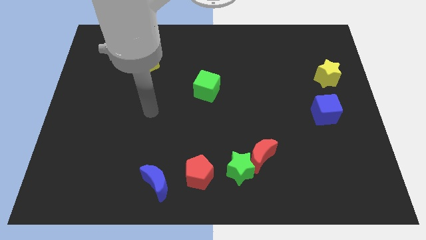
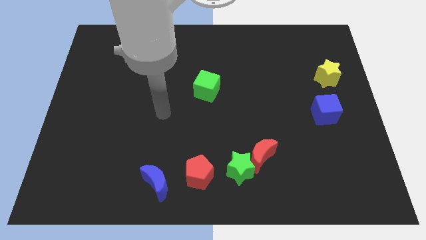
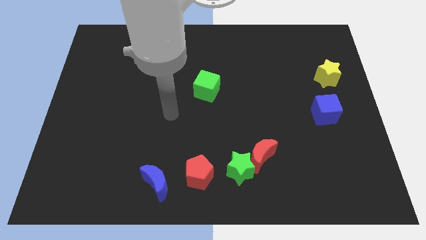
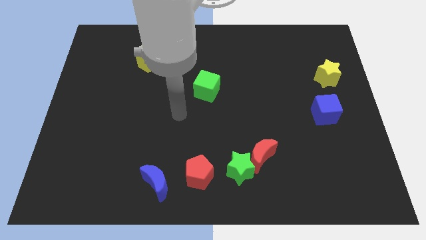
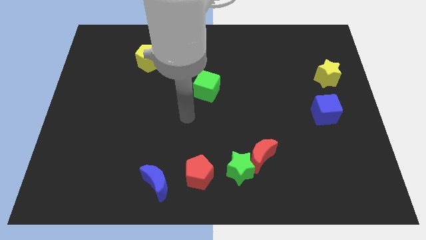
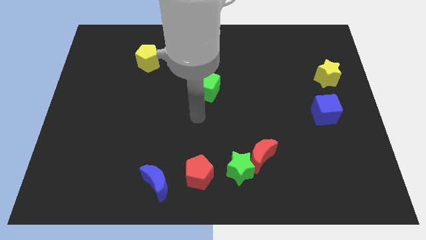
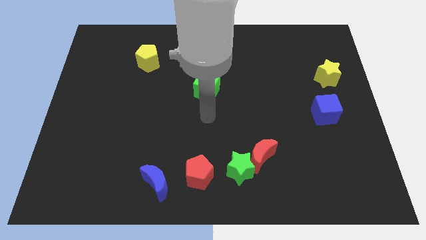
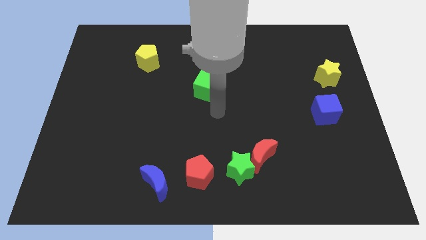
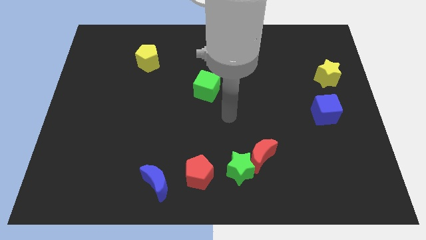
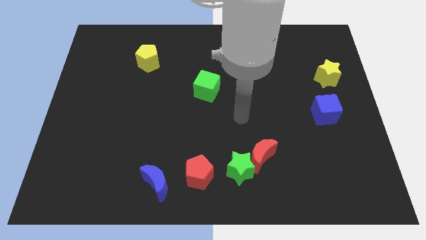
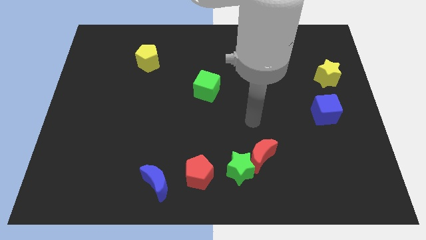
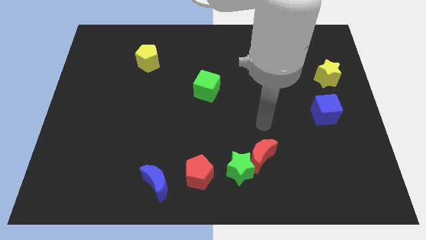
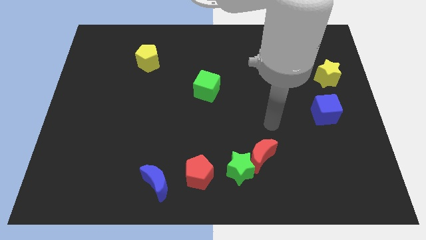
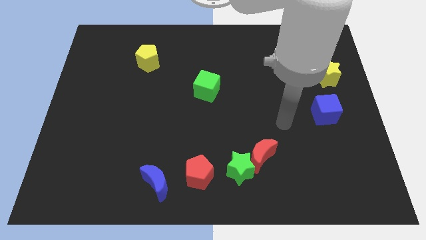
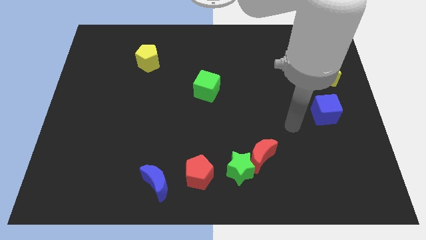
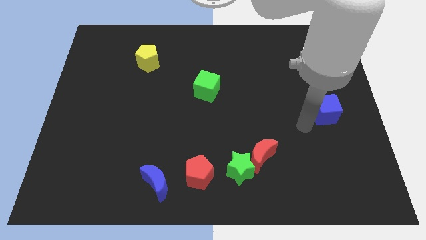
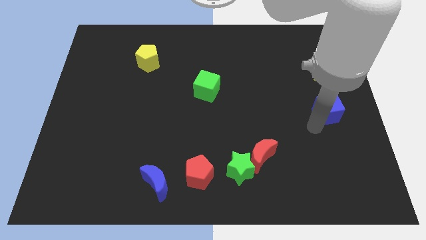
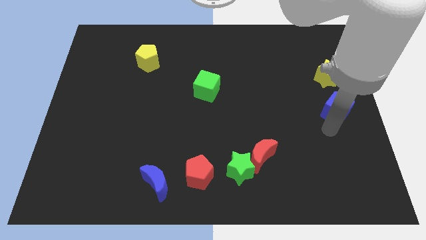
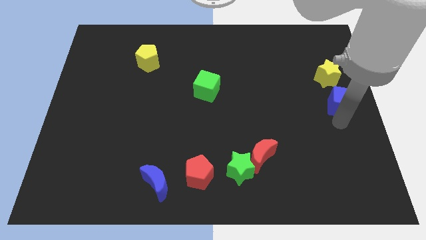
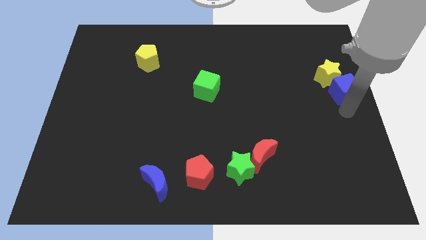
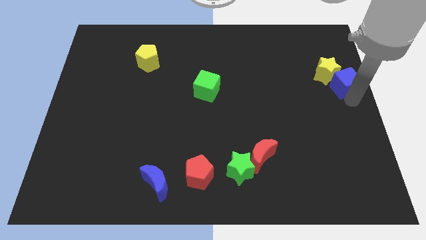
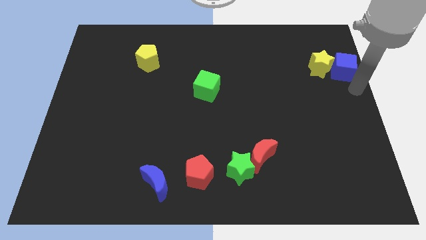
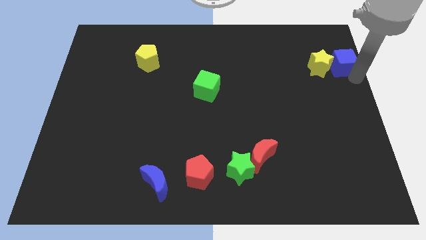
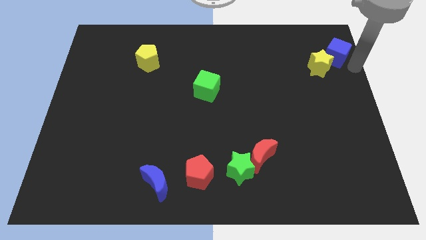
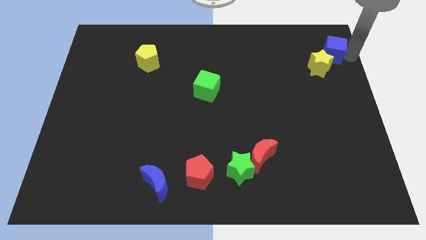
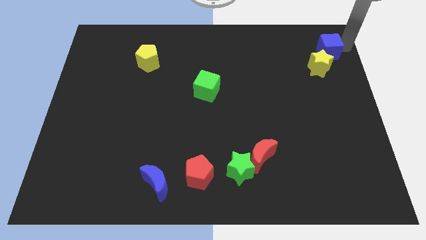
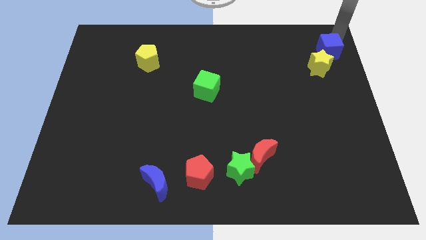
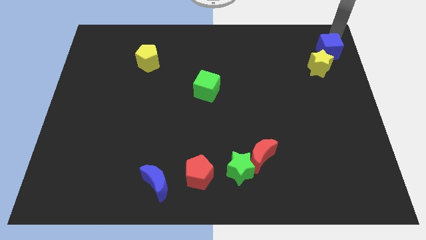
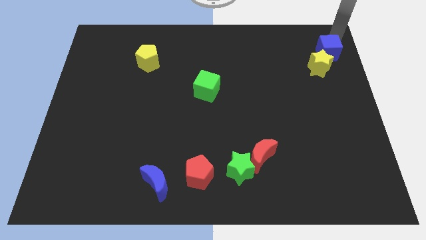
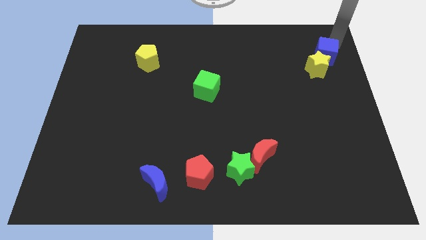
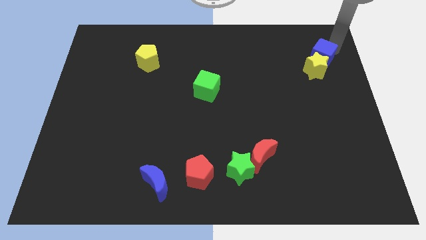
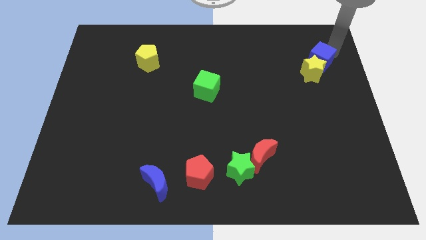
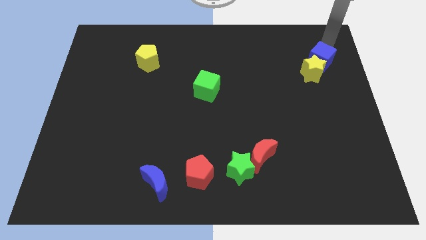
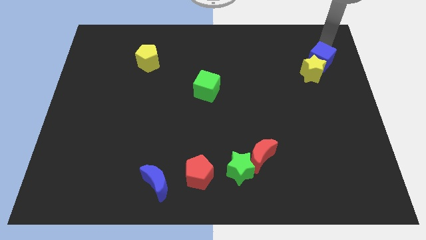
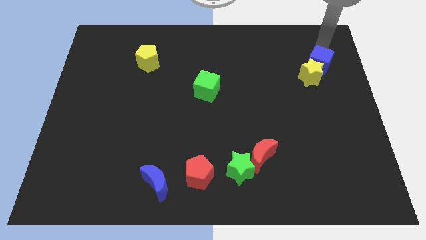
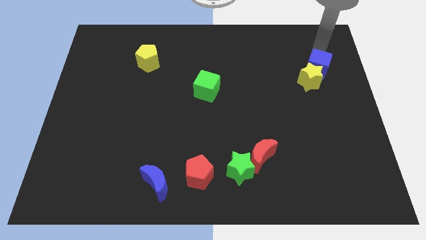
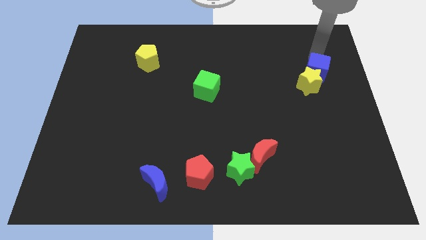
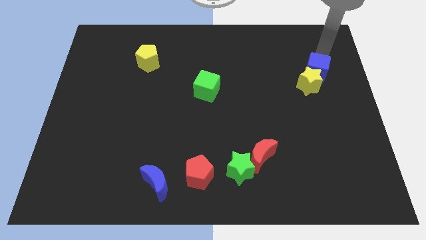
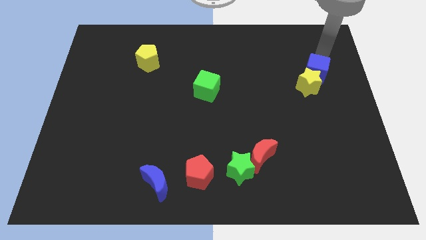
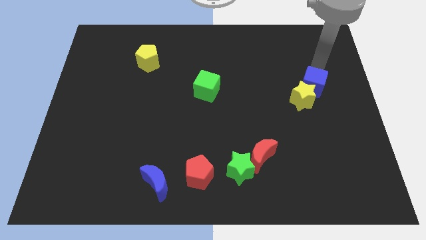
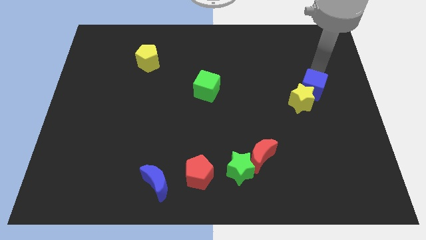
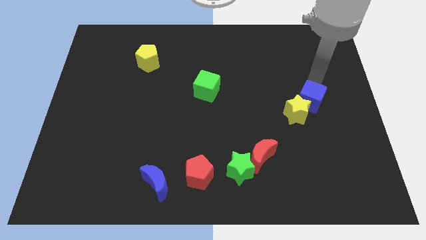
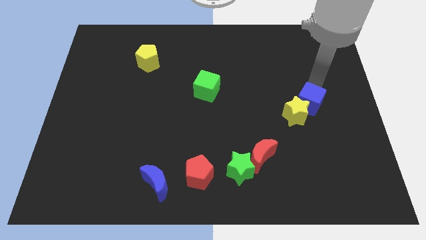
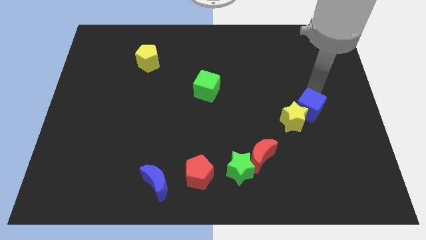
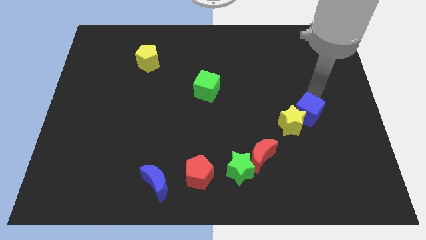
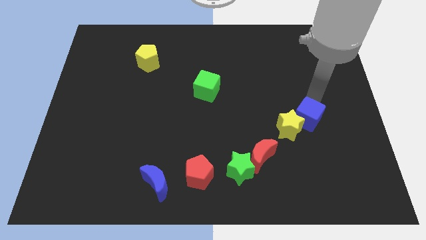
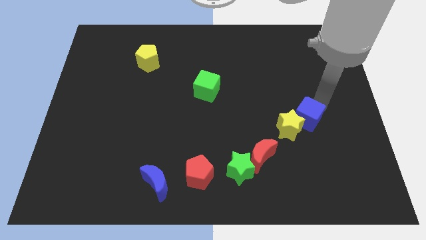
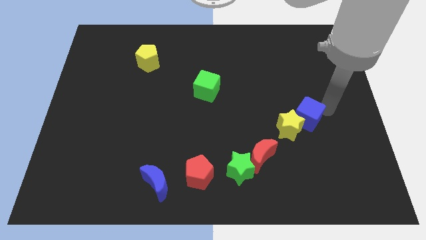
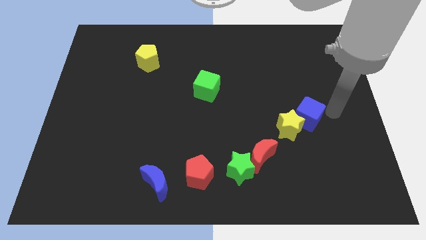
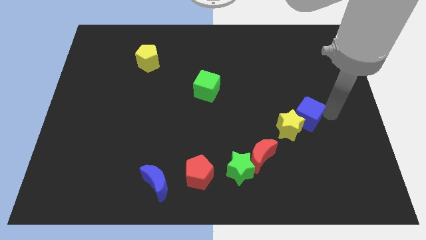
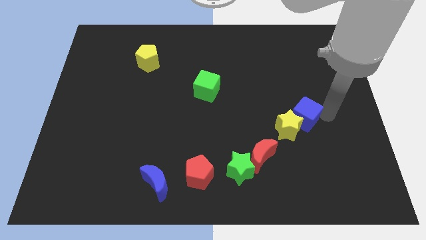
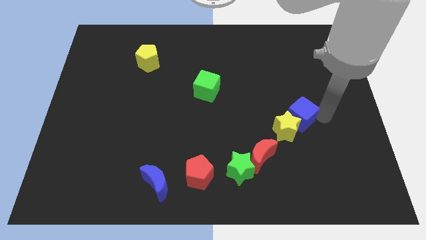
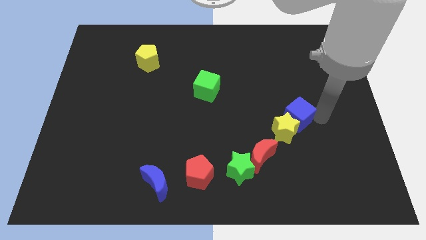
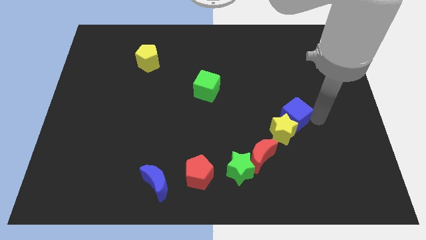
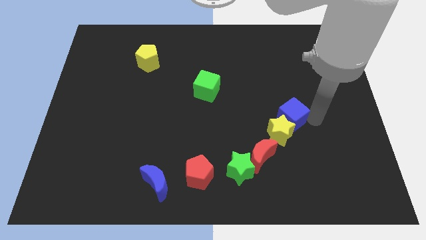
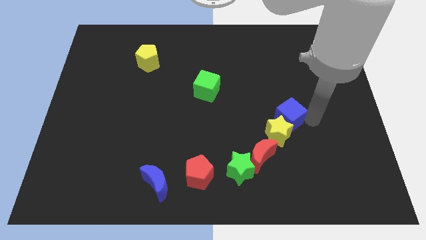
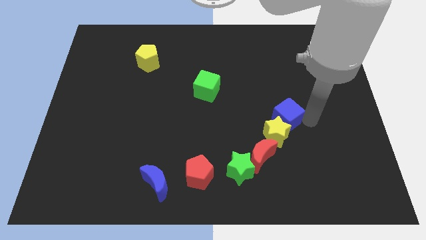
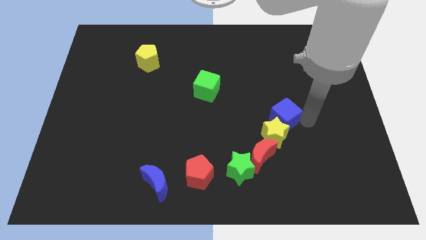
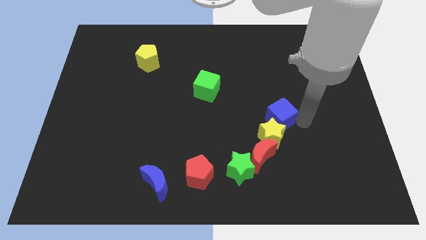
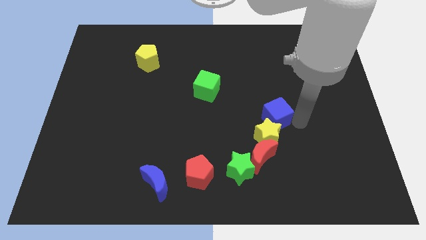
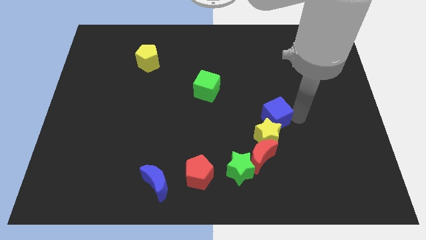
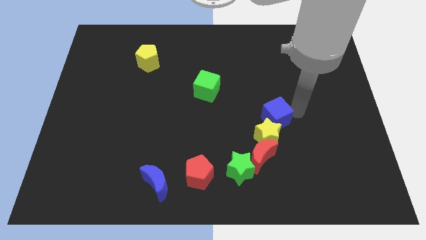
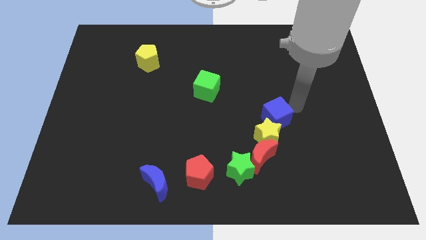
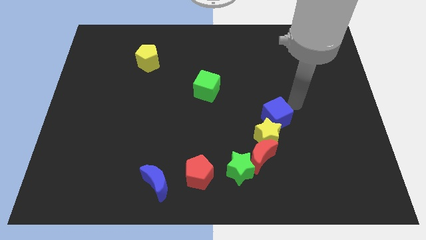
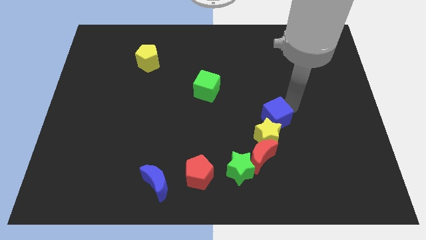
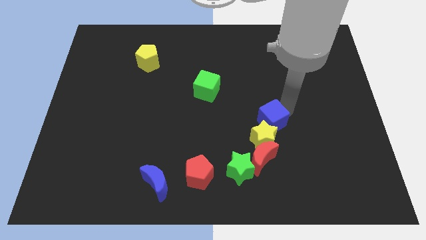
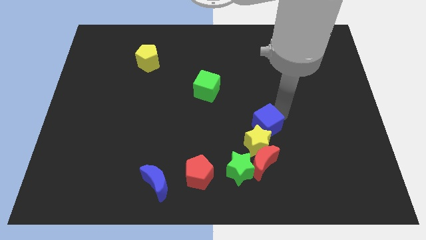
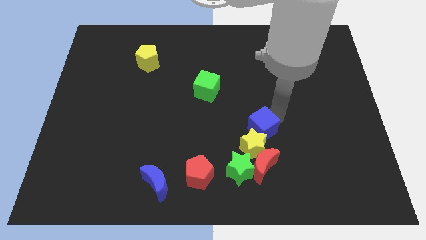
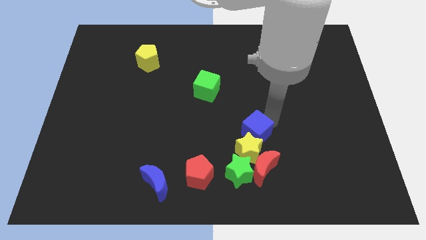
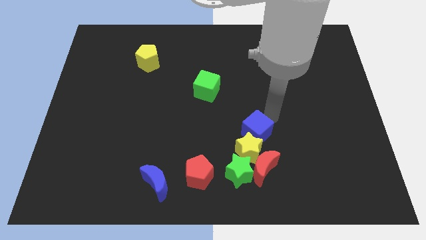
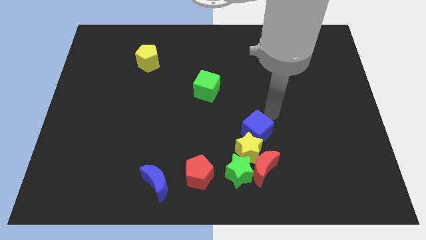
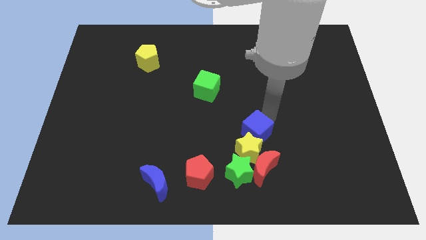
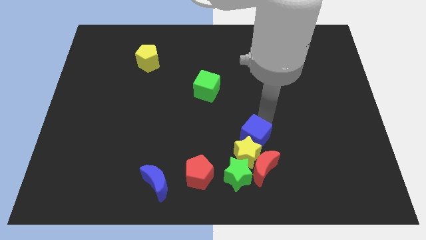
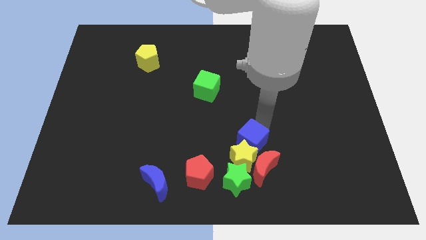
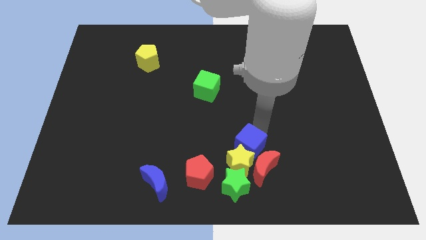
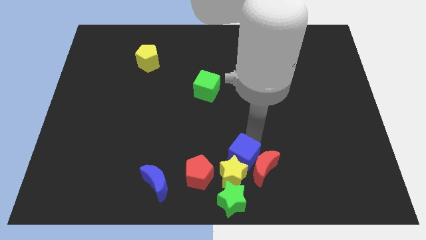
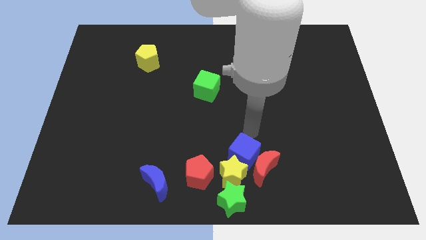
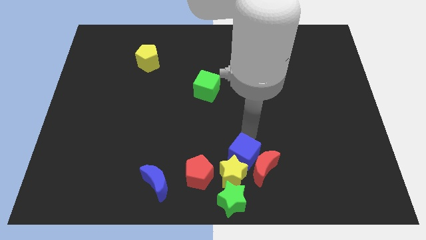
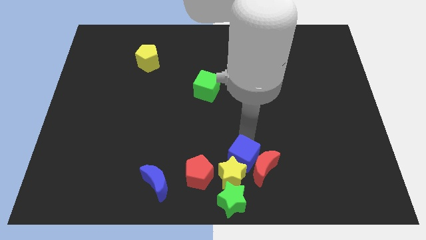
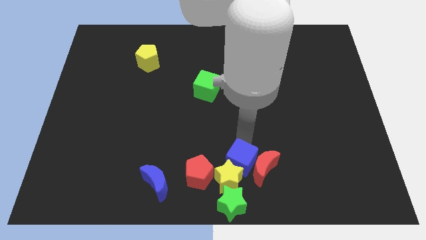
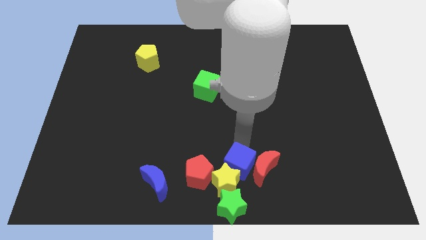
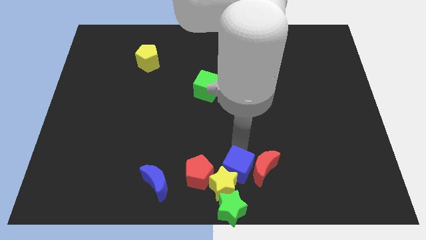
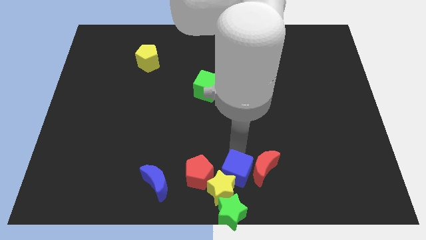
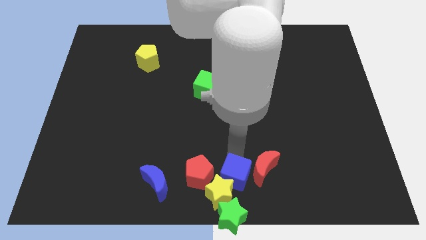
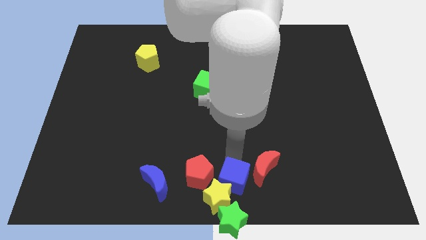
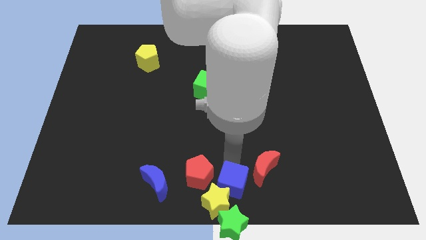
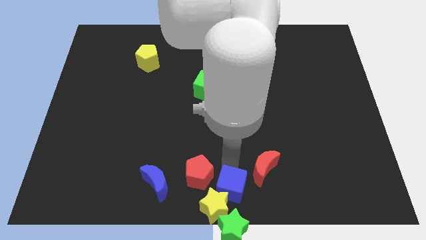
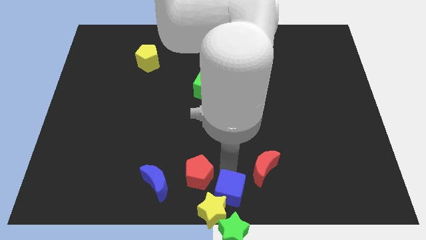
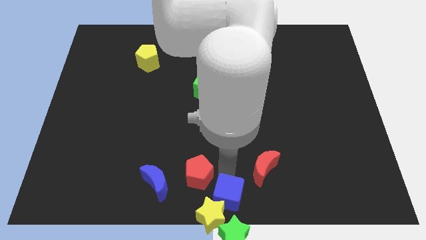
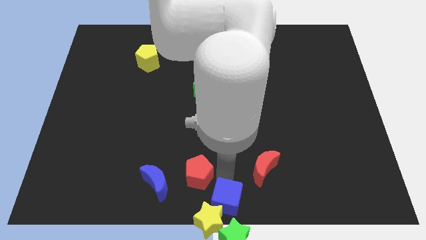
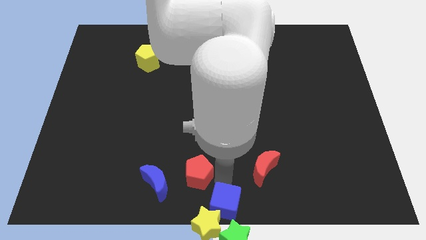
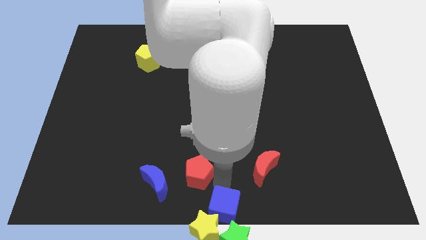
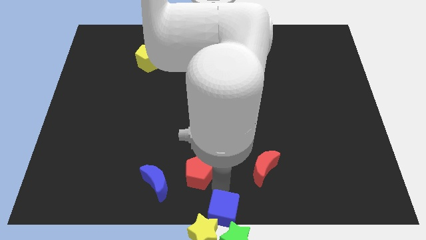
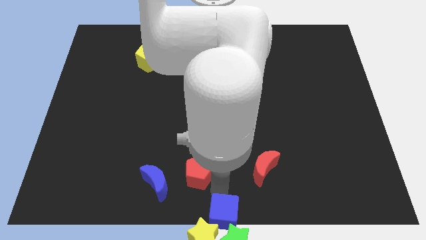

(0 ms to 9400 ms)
move the blue cube next to the green star
